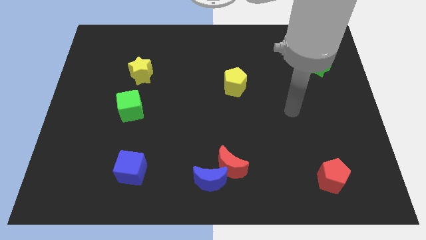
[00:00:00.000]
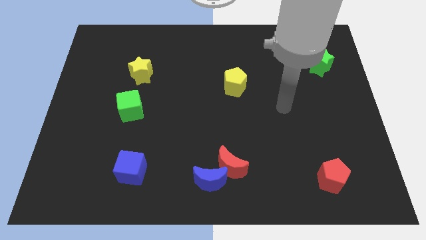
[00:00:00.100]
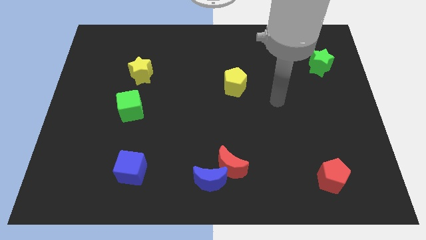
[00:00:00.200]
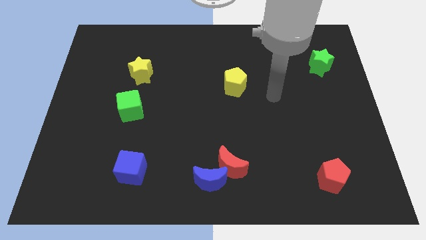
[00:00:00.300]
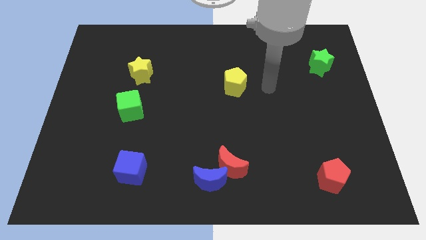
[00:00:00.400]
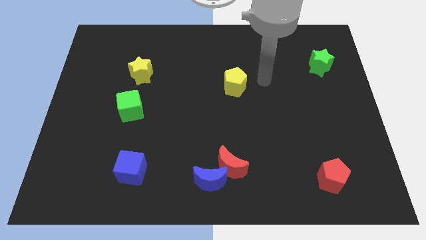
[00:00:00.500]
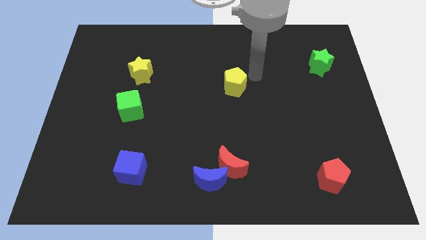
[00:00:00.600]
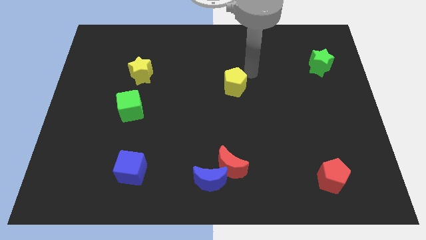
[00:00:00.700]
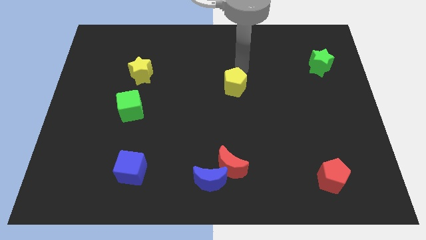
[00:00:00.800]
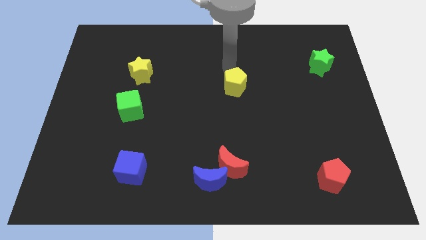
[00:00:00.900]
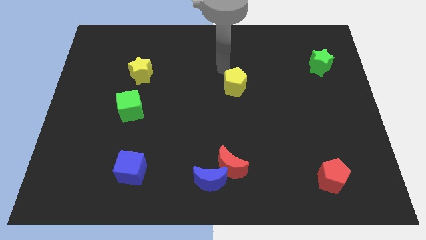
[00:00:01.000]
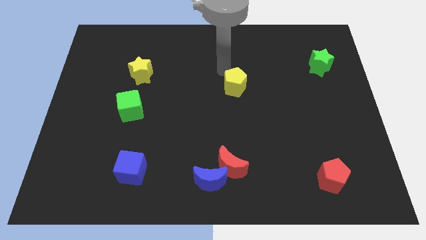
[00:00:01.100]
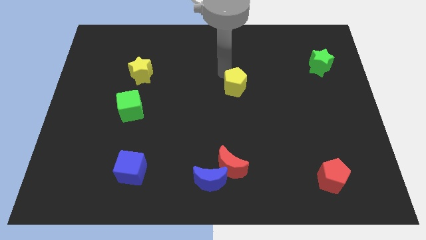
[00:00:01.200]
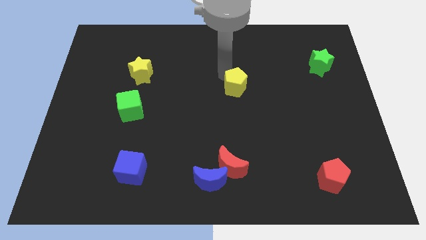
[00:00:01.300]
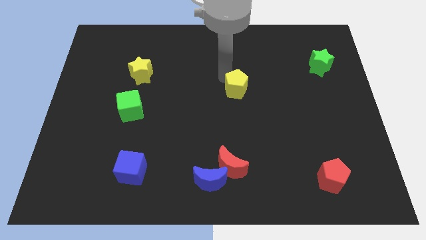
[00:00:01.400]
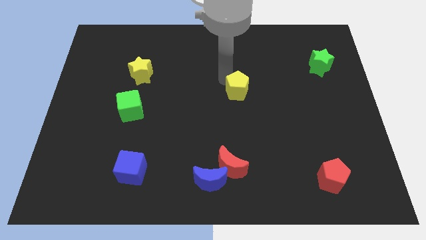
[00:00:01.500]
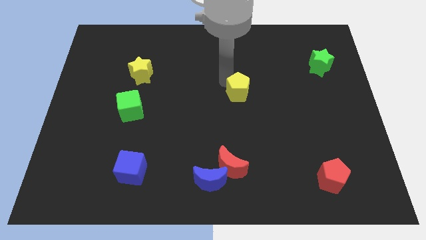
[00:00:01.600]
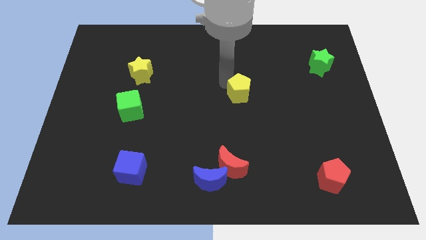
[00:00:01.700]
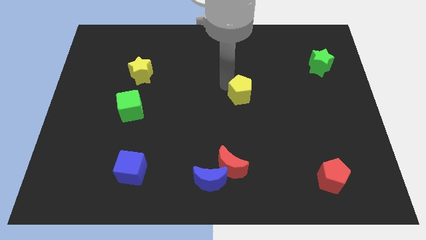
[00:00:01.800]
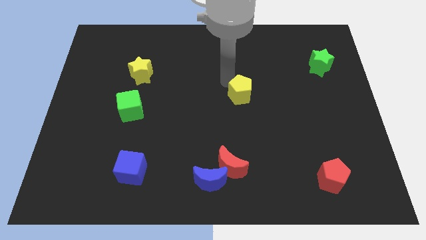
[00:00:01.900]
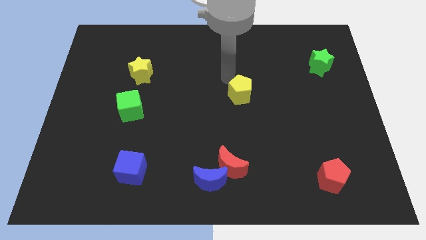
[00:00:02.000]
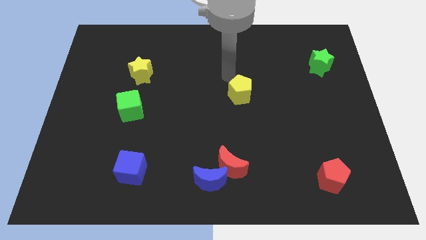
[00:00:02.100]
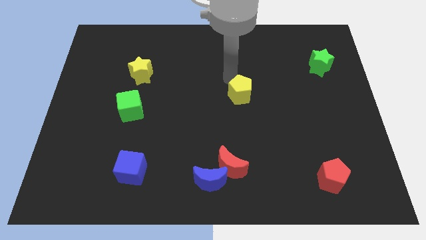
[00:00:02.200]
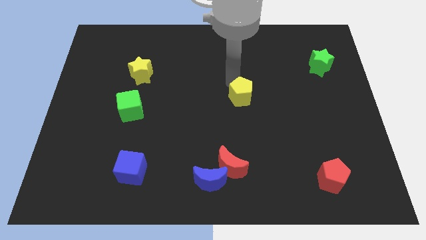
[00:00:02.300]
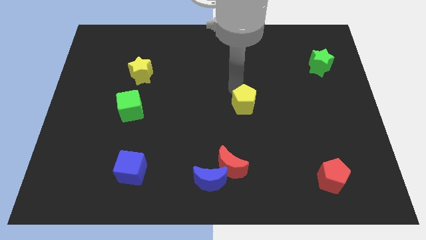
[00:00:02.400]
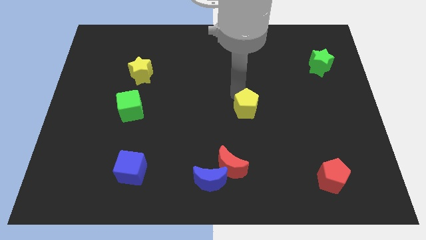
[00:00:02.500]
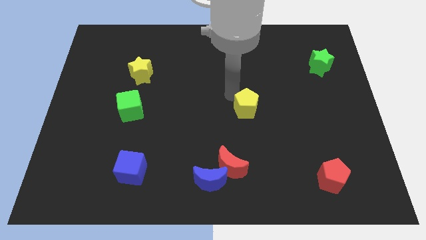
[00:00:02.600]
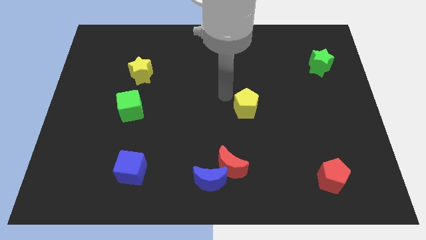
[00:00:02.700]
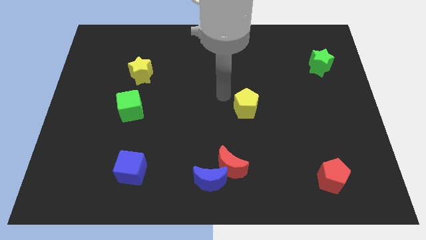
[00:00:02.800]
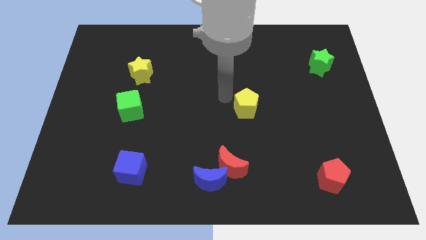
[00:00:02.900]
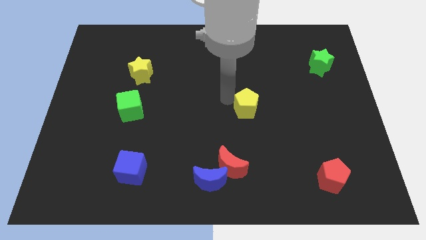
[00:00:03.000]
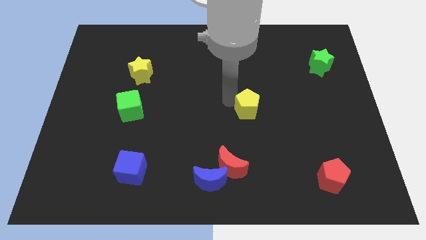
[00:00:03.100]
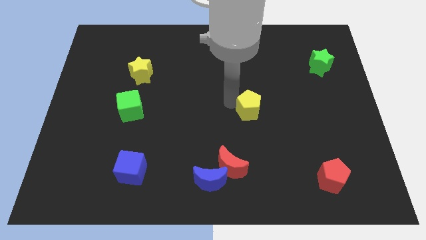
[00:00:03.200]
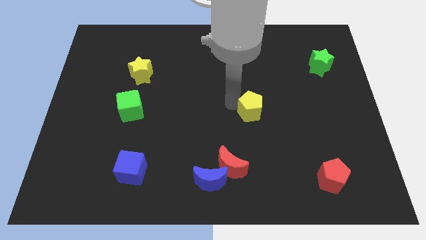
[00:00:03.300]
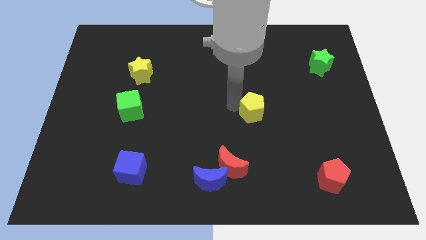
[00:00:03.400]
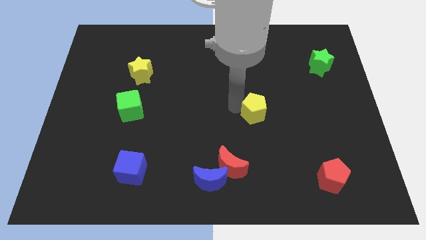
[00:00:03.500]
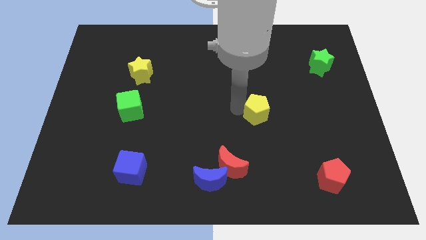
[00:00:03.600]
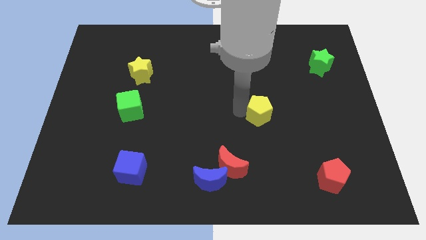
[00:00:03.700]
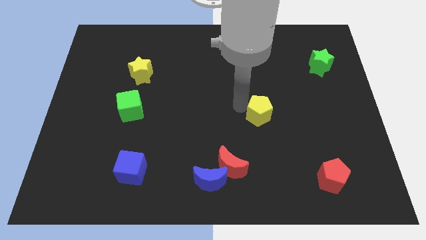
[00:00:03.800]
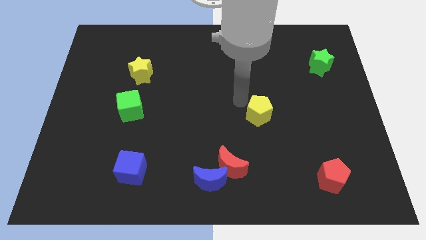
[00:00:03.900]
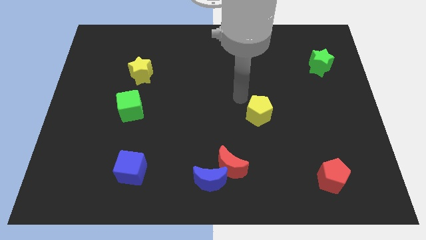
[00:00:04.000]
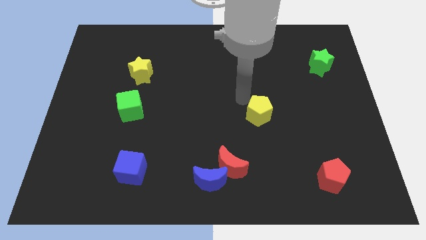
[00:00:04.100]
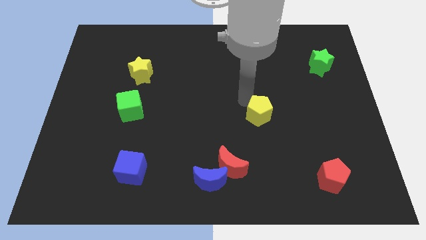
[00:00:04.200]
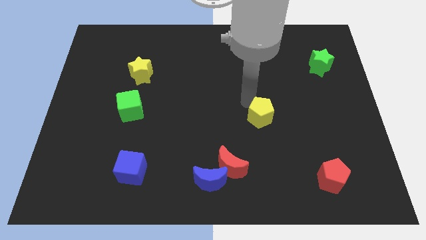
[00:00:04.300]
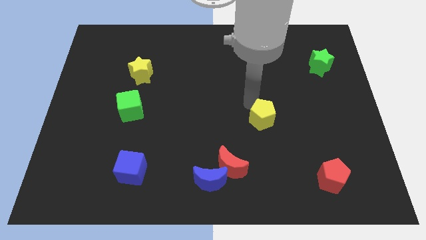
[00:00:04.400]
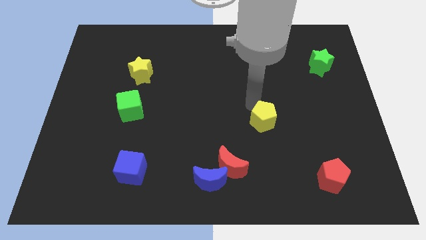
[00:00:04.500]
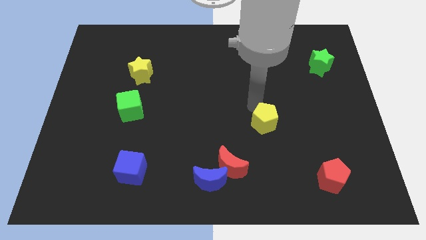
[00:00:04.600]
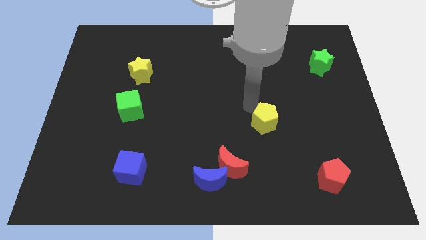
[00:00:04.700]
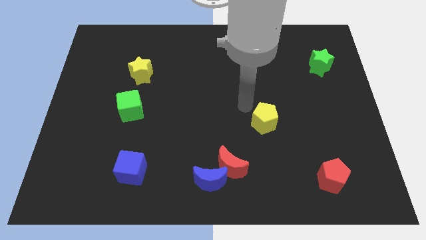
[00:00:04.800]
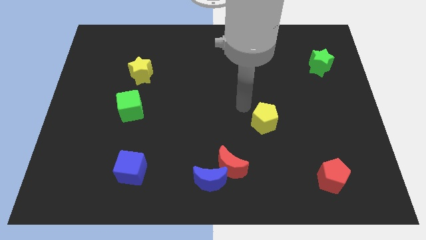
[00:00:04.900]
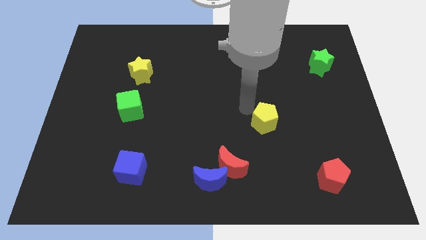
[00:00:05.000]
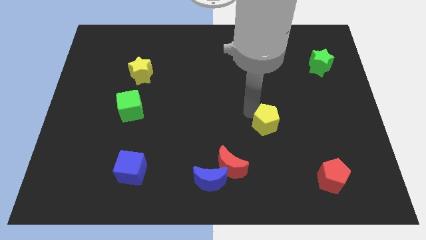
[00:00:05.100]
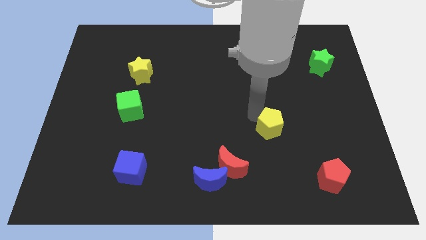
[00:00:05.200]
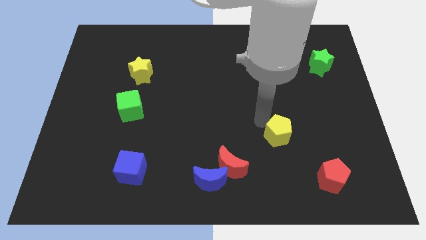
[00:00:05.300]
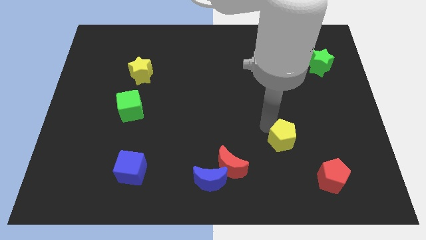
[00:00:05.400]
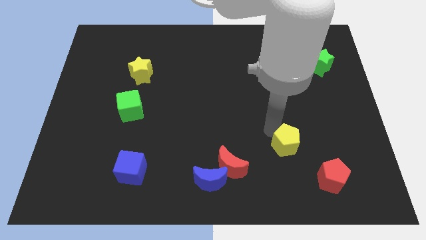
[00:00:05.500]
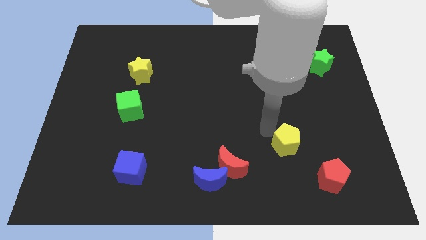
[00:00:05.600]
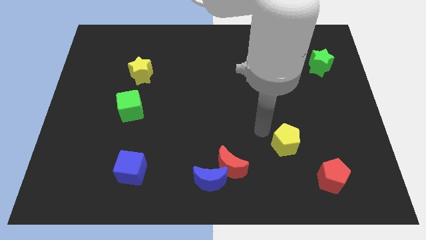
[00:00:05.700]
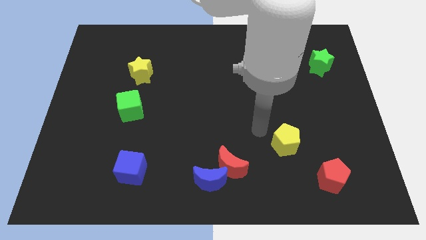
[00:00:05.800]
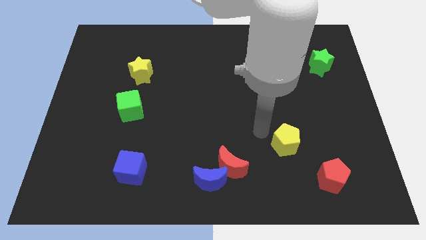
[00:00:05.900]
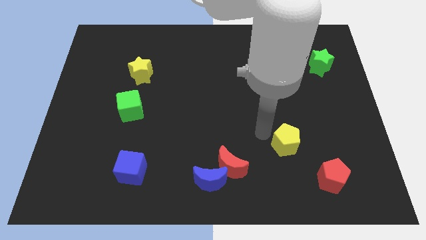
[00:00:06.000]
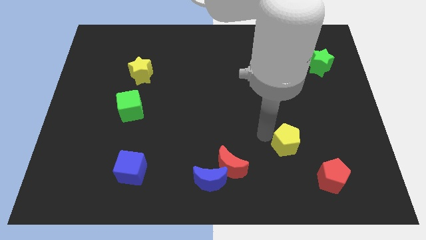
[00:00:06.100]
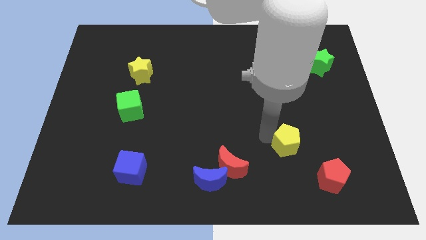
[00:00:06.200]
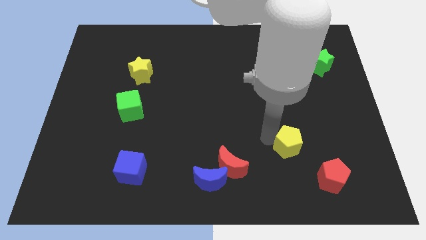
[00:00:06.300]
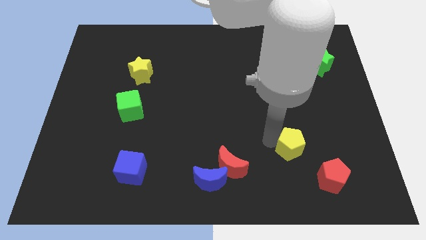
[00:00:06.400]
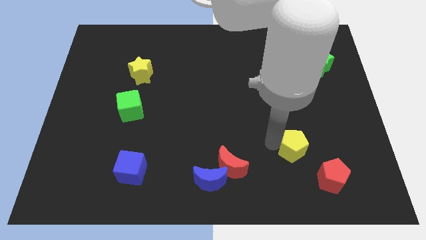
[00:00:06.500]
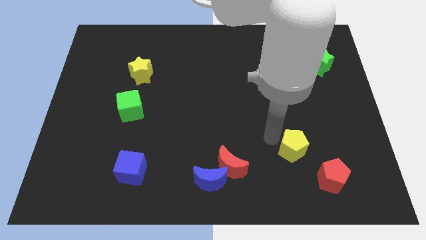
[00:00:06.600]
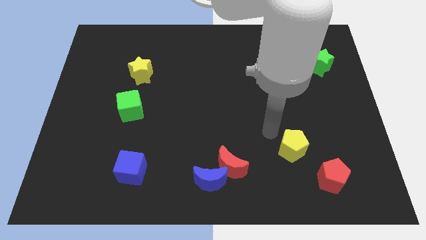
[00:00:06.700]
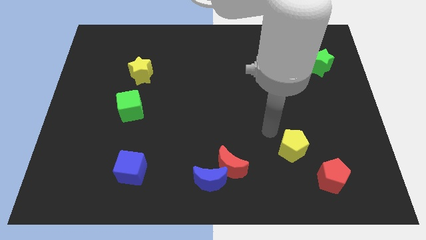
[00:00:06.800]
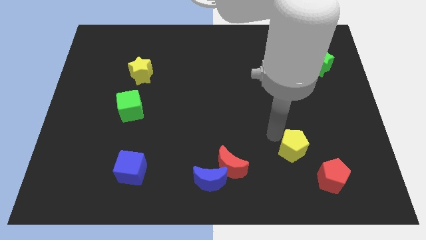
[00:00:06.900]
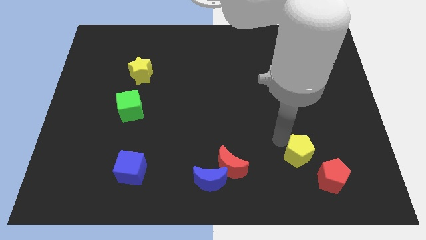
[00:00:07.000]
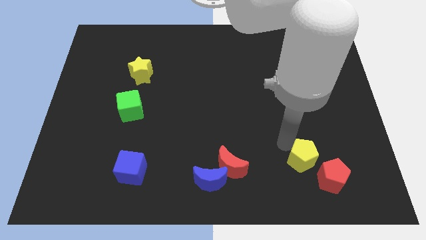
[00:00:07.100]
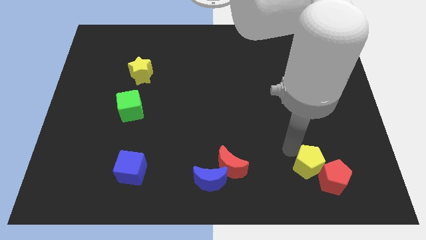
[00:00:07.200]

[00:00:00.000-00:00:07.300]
put the yellow pentagon next to the red pentagon
